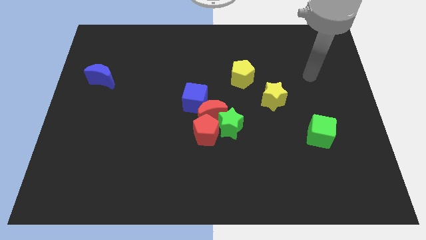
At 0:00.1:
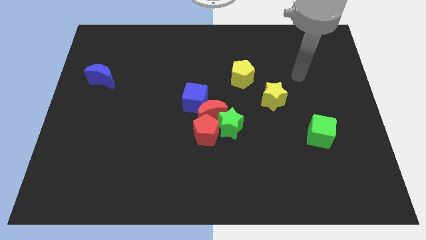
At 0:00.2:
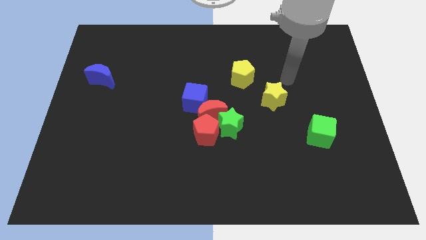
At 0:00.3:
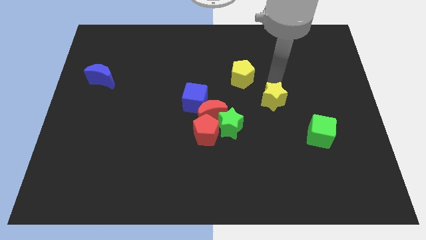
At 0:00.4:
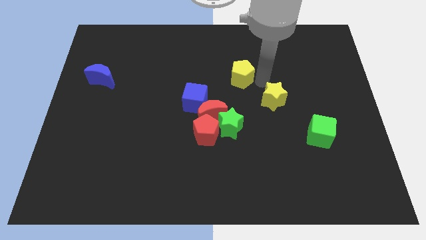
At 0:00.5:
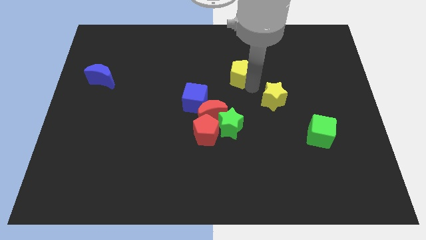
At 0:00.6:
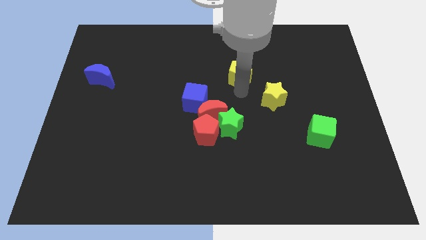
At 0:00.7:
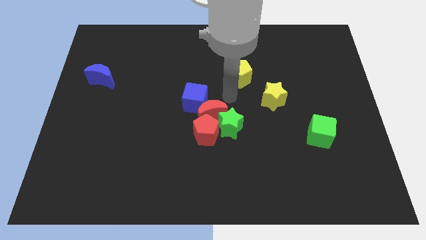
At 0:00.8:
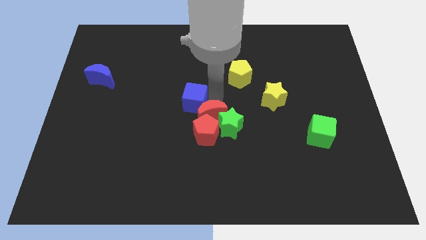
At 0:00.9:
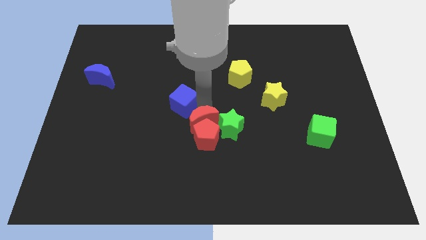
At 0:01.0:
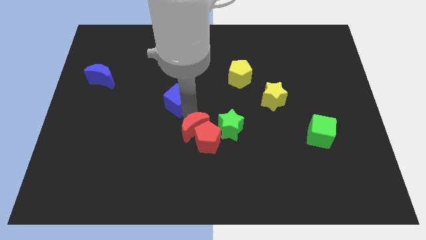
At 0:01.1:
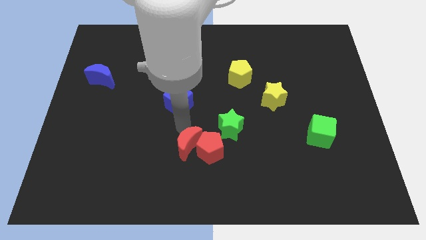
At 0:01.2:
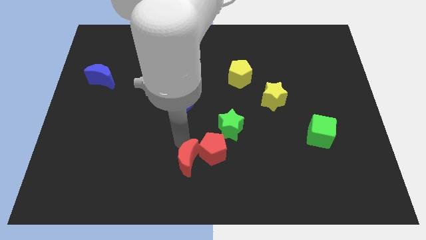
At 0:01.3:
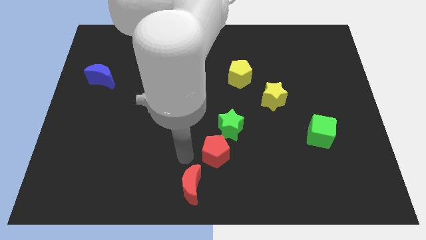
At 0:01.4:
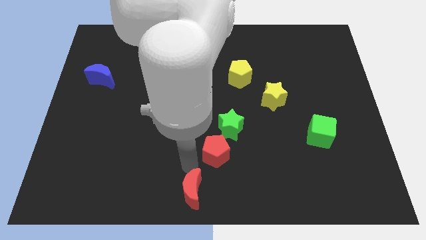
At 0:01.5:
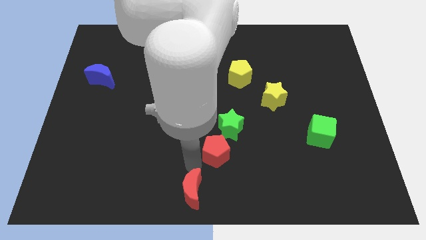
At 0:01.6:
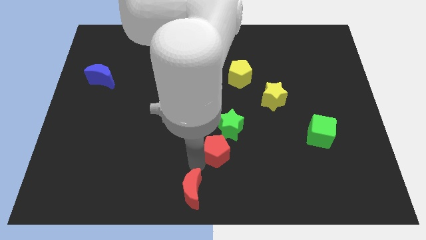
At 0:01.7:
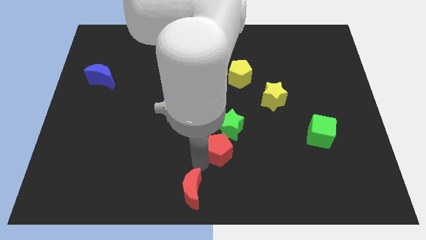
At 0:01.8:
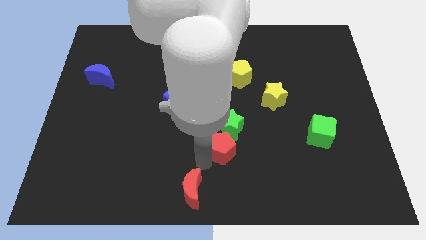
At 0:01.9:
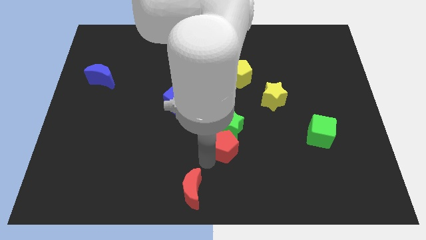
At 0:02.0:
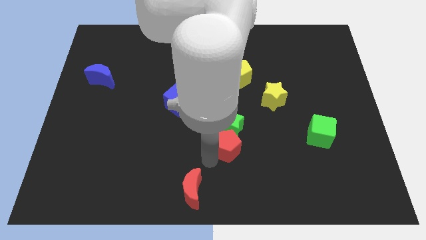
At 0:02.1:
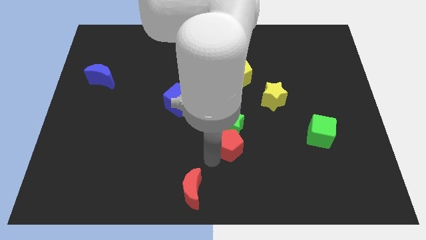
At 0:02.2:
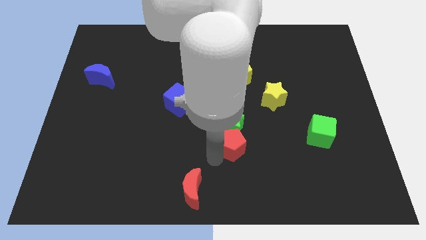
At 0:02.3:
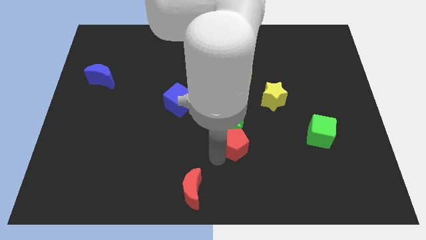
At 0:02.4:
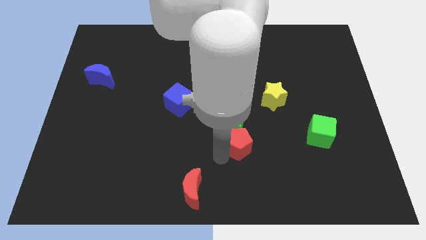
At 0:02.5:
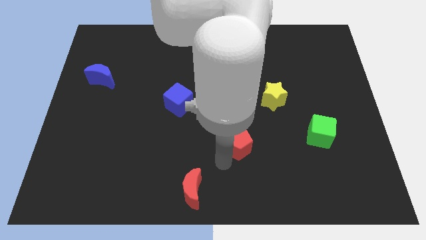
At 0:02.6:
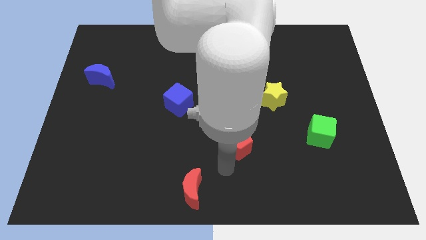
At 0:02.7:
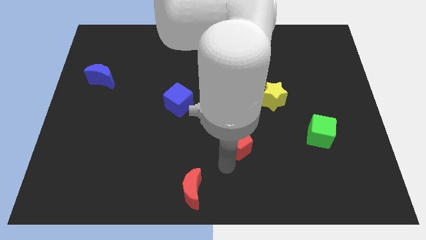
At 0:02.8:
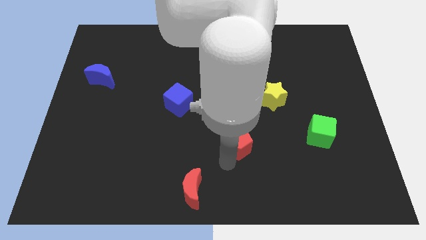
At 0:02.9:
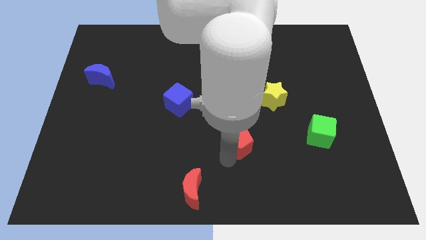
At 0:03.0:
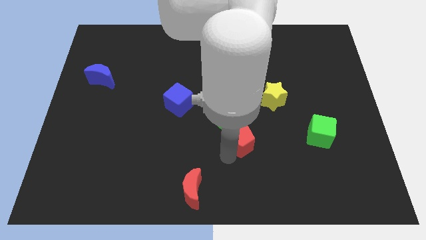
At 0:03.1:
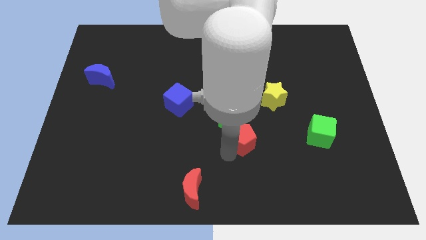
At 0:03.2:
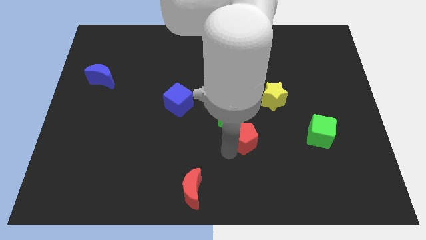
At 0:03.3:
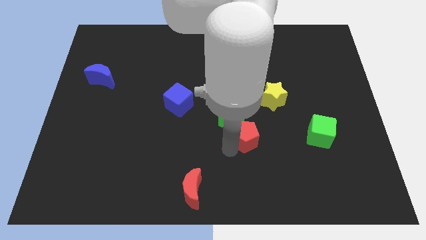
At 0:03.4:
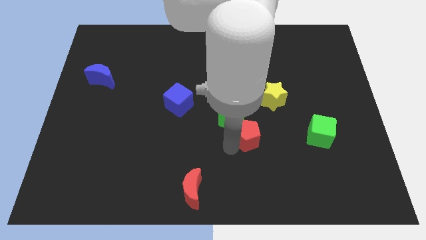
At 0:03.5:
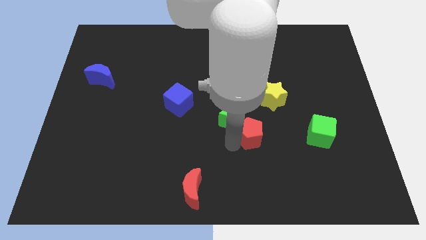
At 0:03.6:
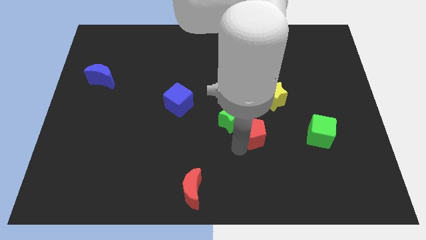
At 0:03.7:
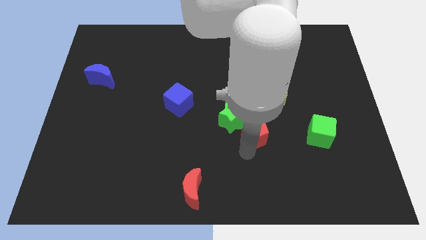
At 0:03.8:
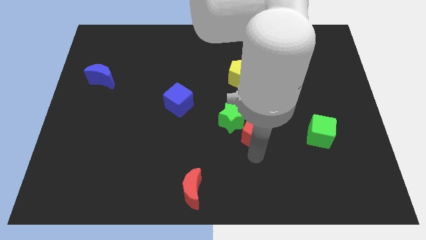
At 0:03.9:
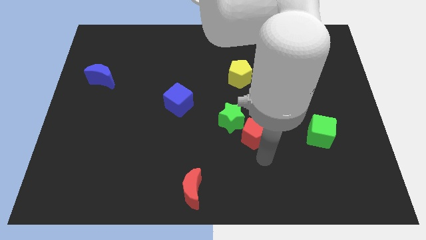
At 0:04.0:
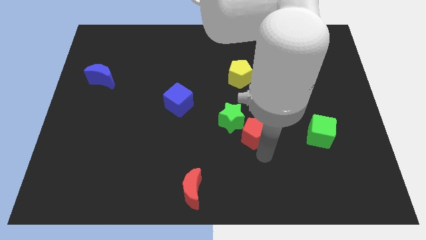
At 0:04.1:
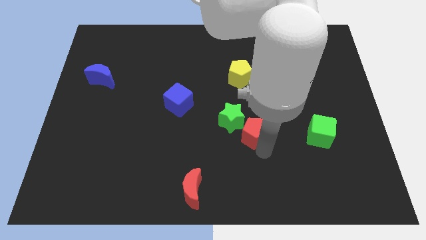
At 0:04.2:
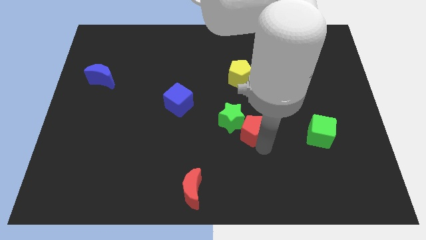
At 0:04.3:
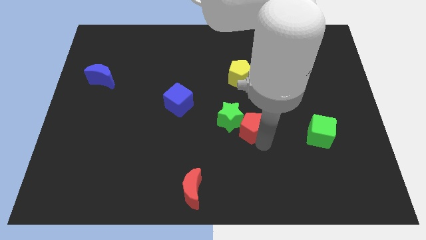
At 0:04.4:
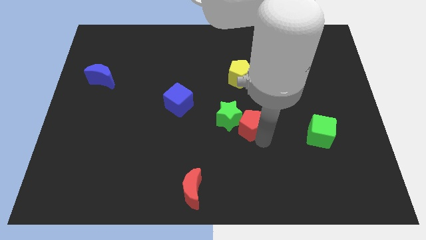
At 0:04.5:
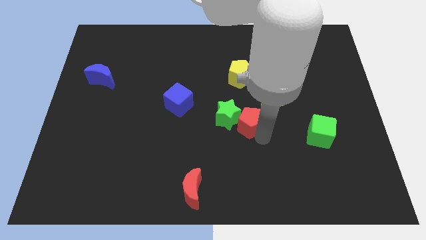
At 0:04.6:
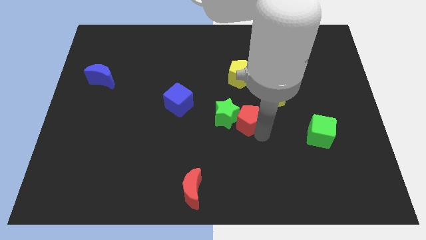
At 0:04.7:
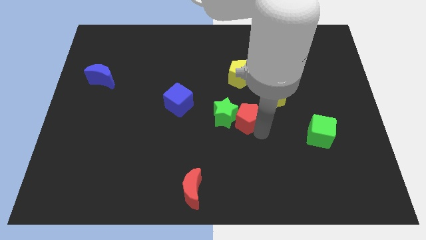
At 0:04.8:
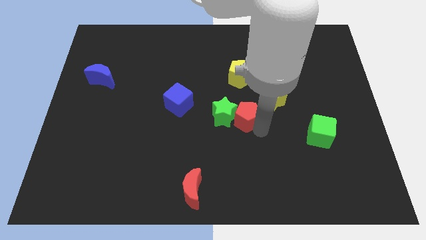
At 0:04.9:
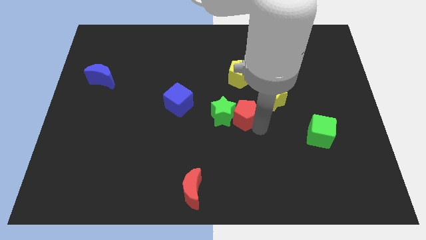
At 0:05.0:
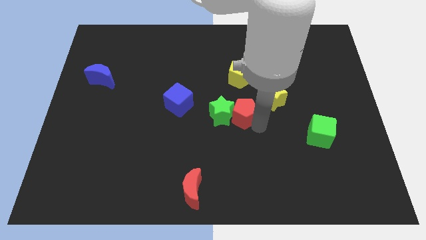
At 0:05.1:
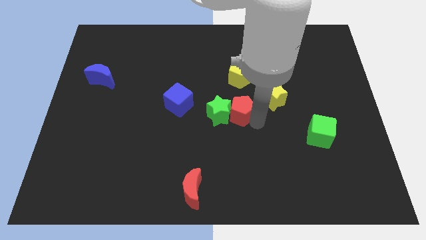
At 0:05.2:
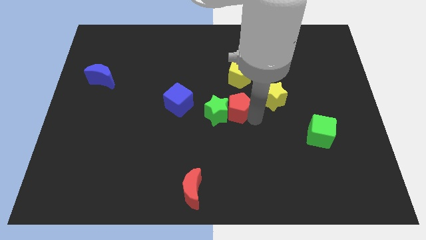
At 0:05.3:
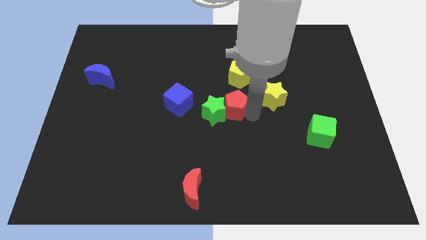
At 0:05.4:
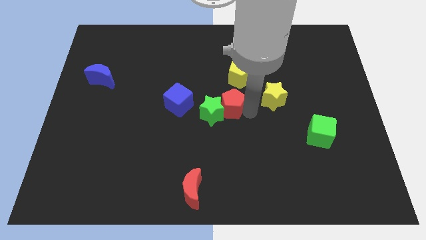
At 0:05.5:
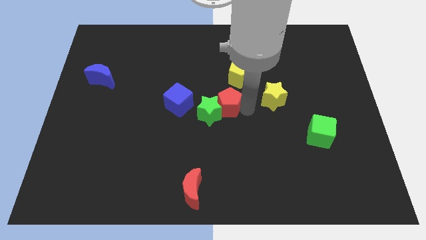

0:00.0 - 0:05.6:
push the red pentagon to the top of the green star

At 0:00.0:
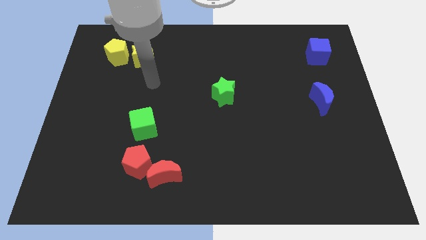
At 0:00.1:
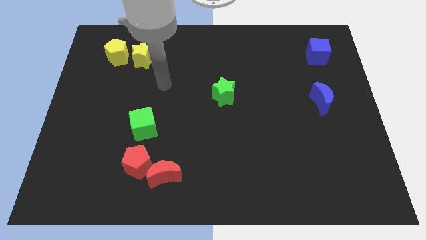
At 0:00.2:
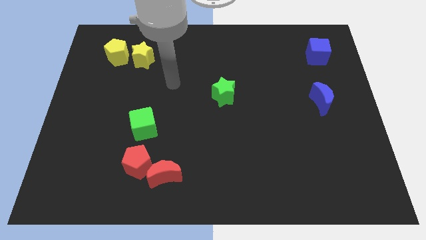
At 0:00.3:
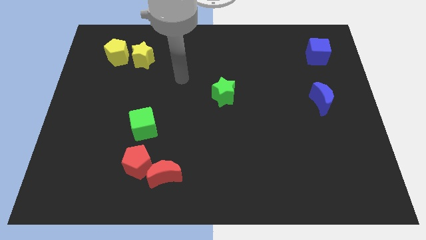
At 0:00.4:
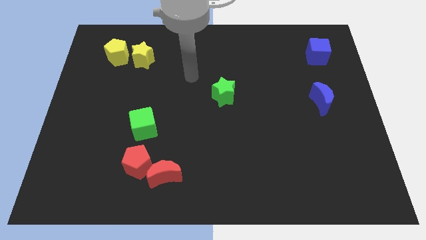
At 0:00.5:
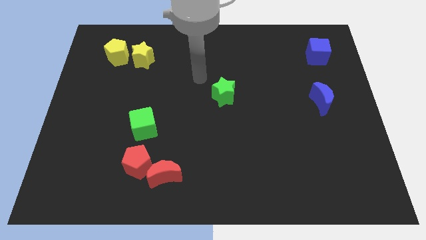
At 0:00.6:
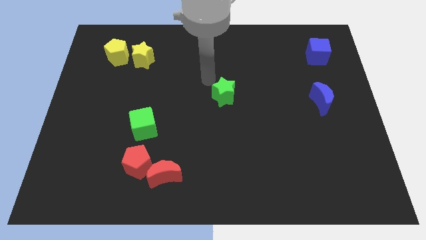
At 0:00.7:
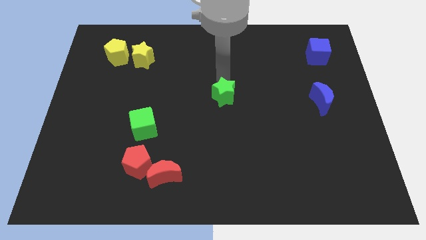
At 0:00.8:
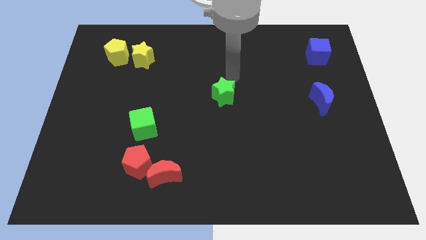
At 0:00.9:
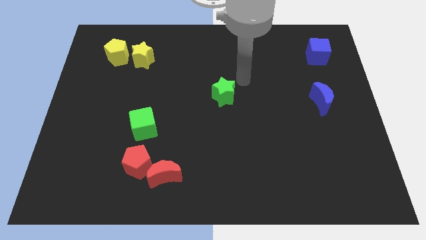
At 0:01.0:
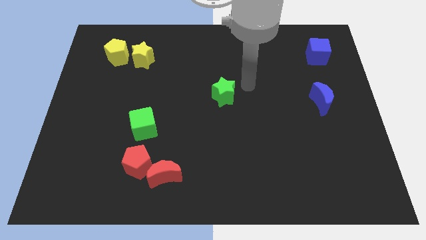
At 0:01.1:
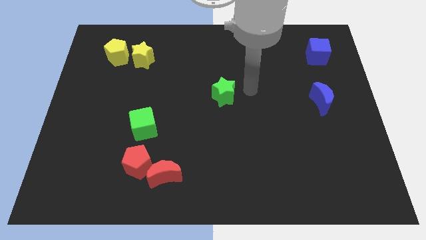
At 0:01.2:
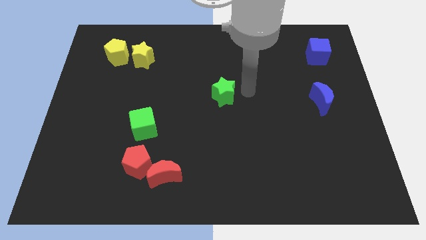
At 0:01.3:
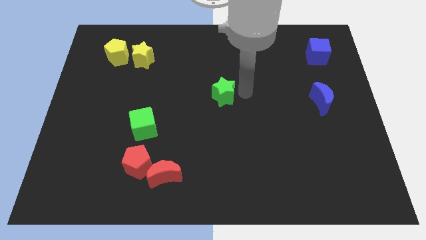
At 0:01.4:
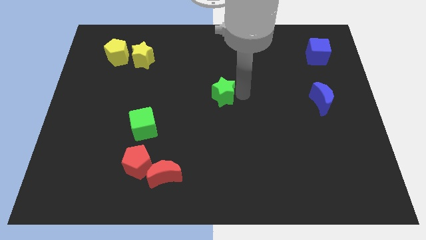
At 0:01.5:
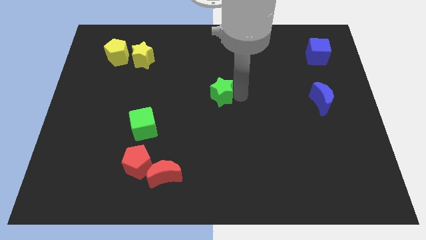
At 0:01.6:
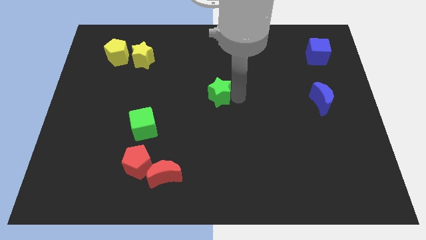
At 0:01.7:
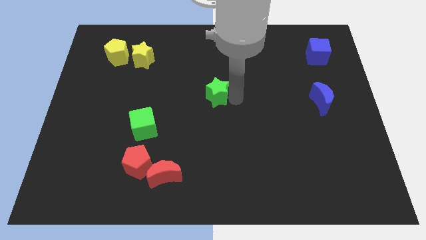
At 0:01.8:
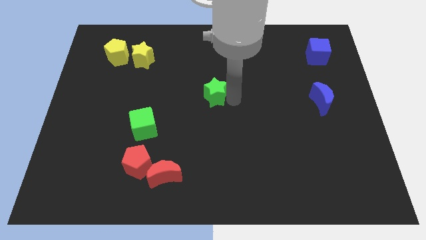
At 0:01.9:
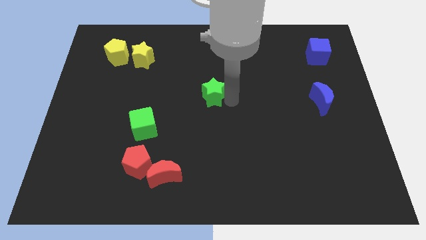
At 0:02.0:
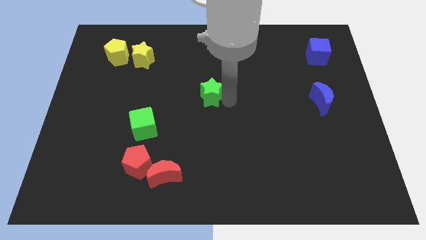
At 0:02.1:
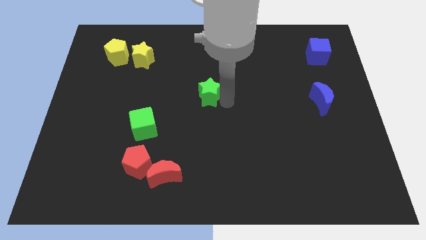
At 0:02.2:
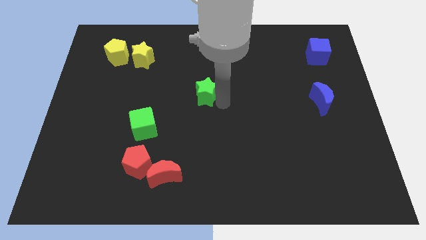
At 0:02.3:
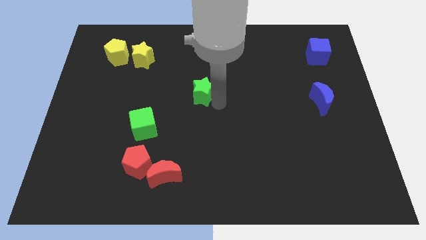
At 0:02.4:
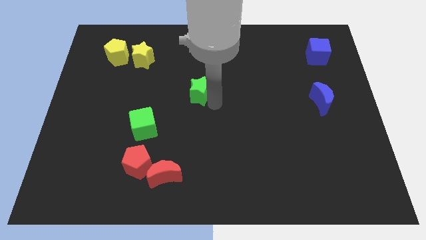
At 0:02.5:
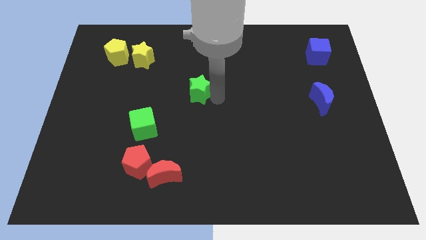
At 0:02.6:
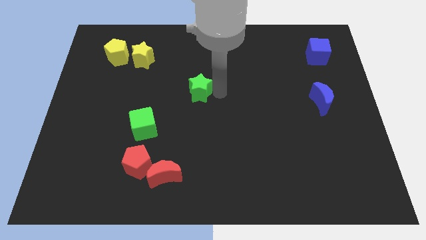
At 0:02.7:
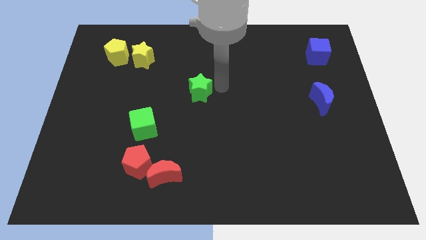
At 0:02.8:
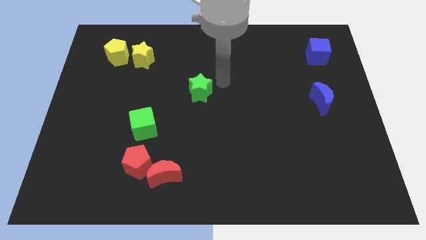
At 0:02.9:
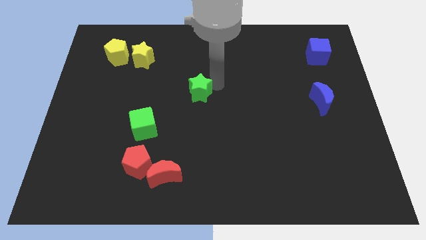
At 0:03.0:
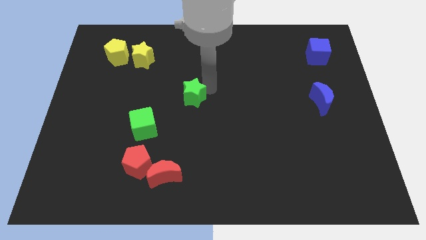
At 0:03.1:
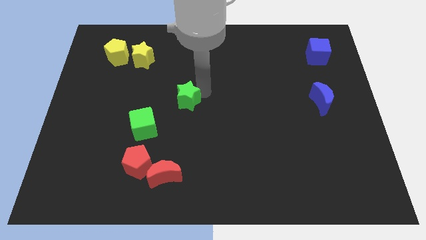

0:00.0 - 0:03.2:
move the green star diagonally up and to the right of the green cube
